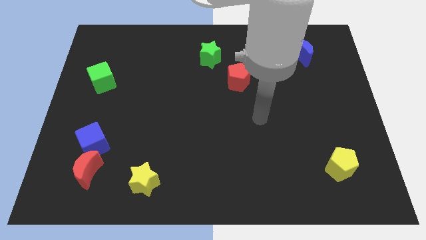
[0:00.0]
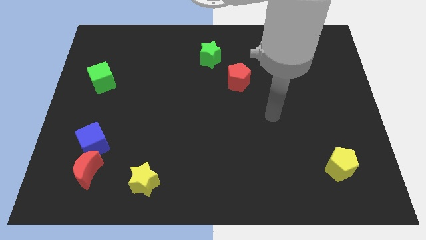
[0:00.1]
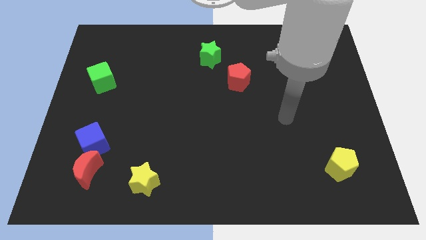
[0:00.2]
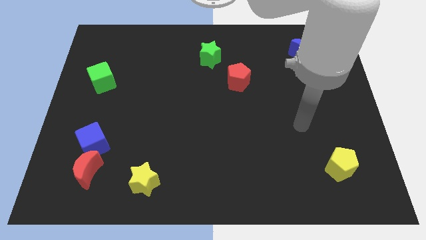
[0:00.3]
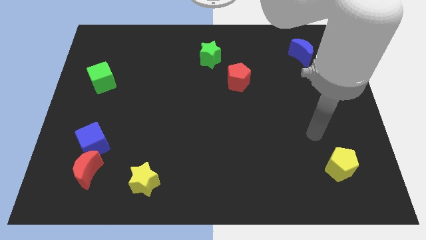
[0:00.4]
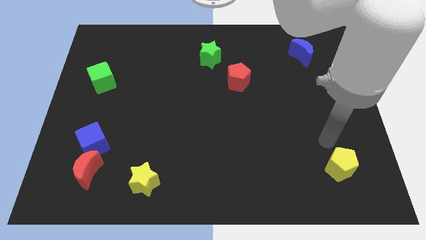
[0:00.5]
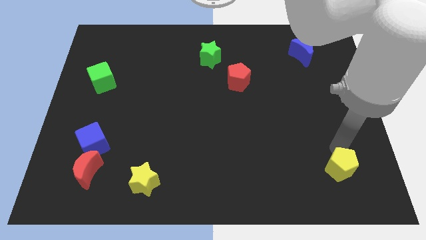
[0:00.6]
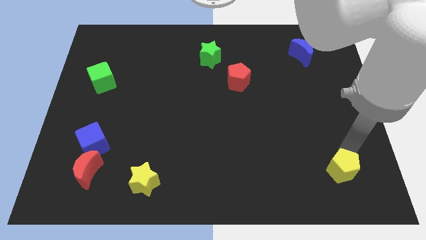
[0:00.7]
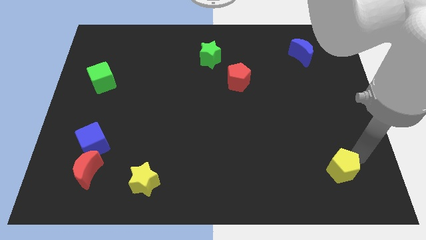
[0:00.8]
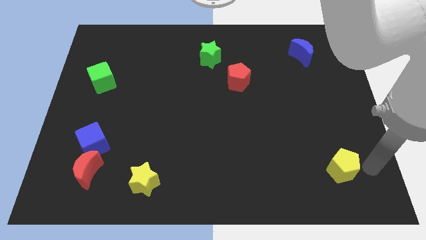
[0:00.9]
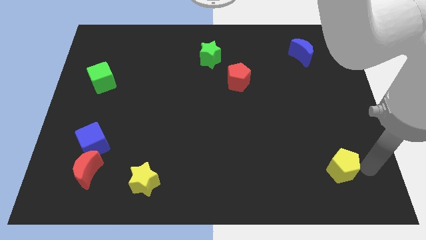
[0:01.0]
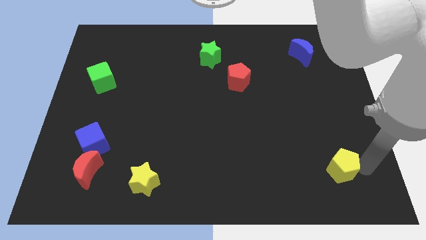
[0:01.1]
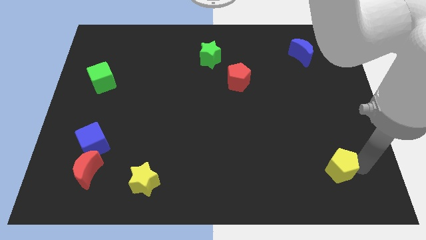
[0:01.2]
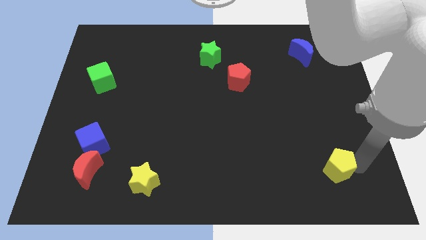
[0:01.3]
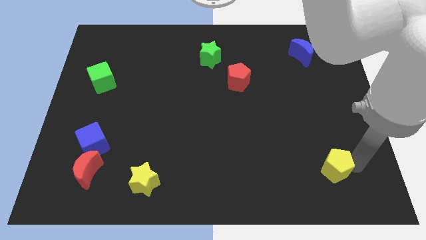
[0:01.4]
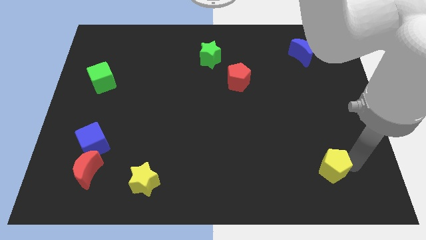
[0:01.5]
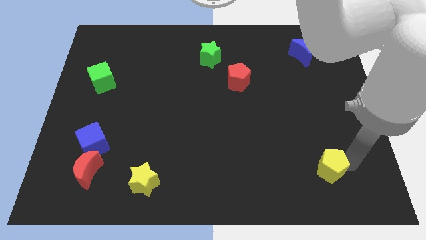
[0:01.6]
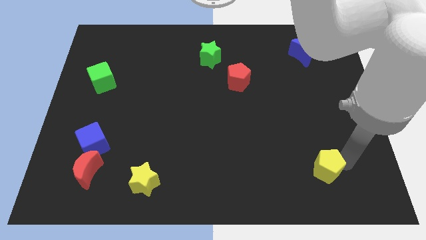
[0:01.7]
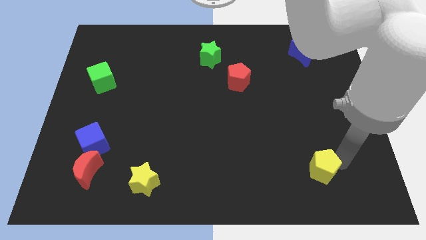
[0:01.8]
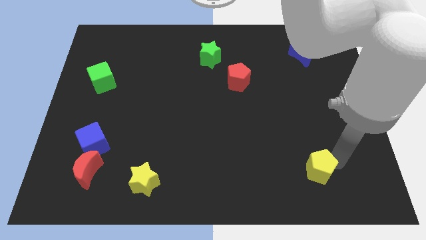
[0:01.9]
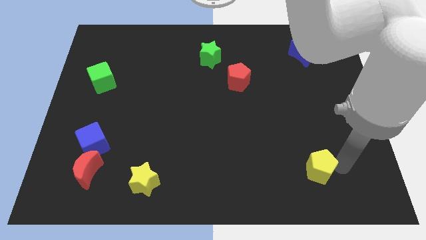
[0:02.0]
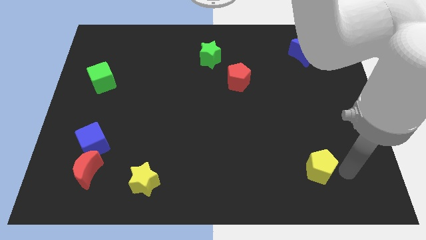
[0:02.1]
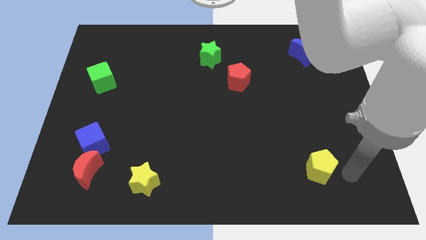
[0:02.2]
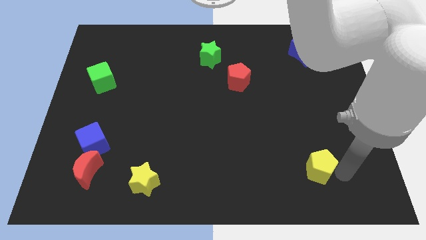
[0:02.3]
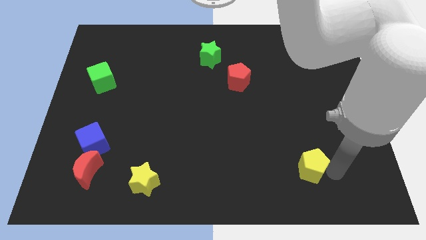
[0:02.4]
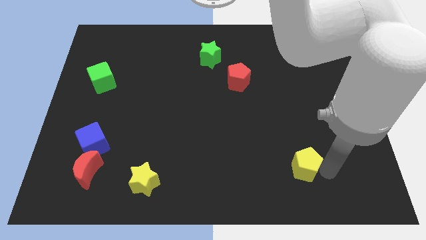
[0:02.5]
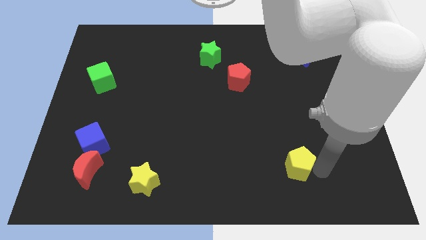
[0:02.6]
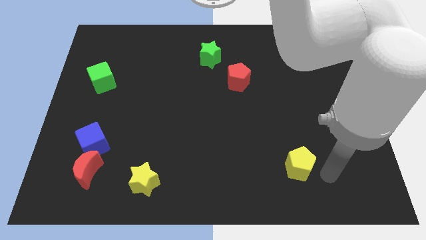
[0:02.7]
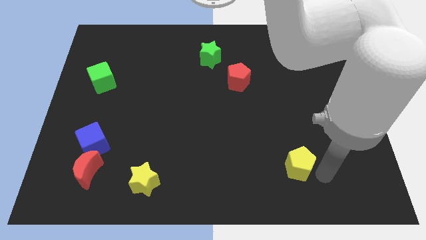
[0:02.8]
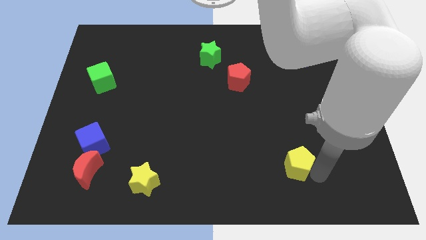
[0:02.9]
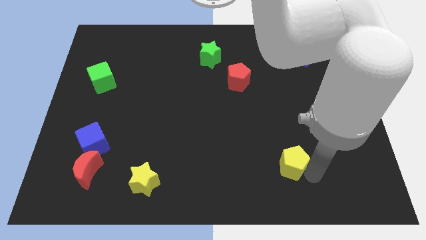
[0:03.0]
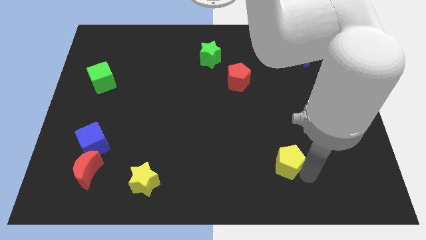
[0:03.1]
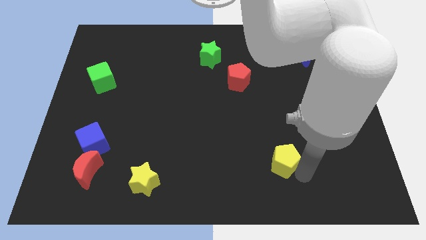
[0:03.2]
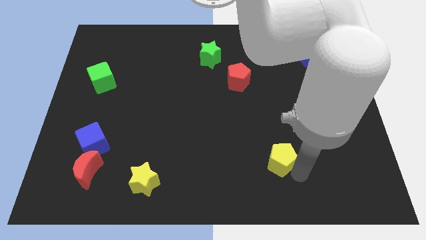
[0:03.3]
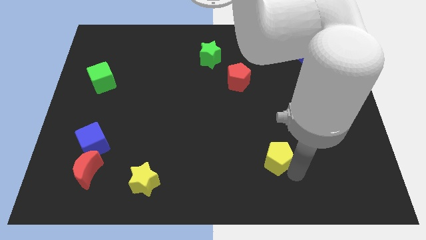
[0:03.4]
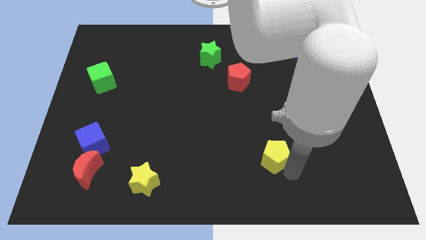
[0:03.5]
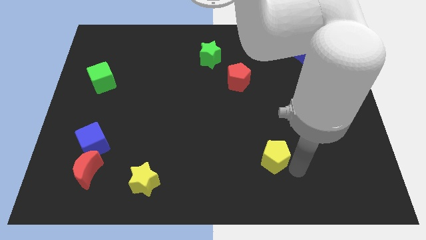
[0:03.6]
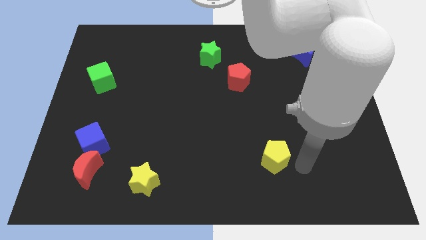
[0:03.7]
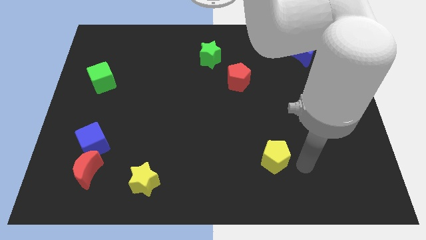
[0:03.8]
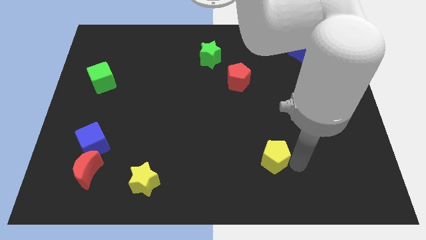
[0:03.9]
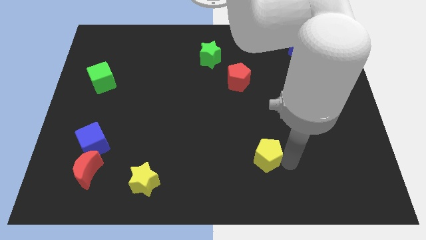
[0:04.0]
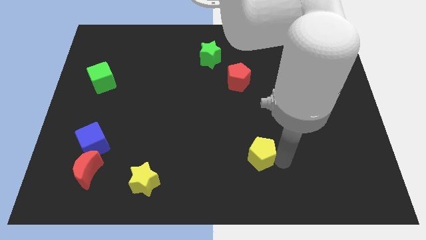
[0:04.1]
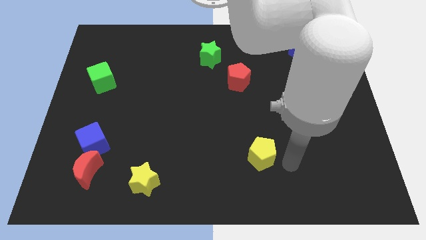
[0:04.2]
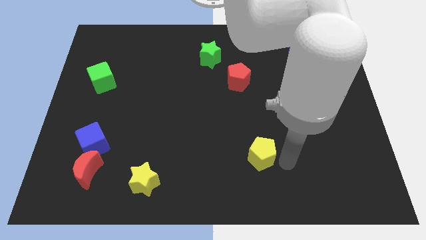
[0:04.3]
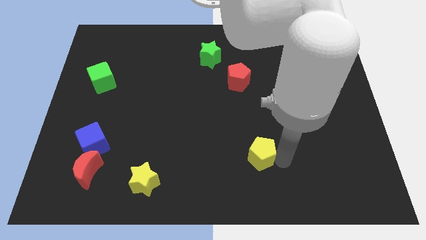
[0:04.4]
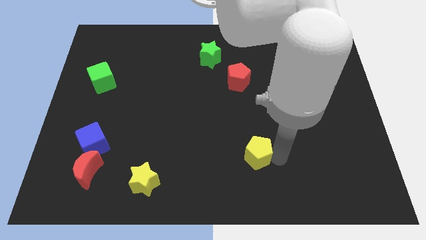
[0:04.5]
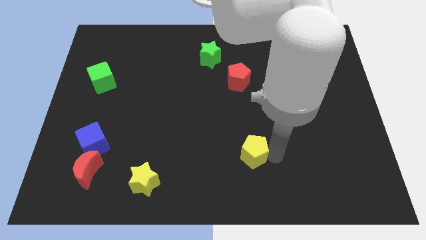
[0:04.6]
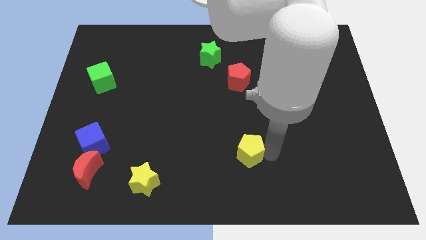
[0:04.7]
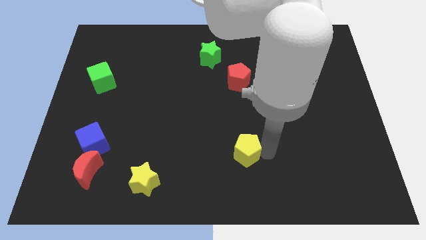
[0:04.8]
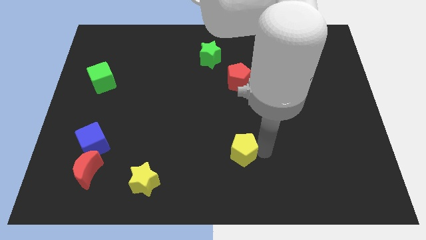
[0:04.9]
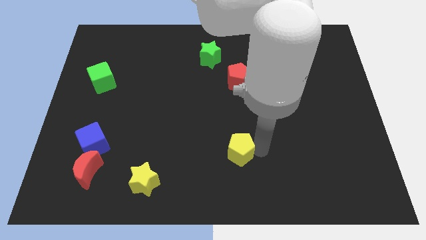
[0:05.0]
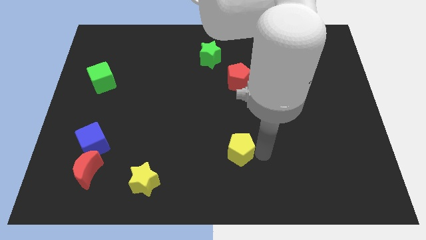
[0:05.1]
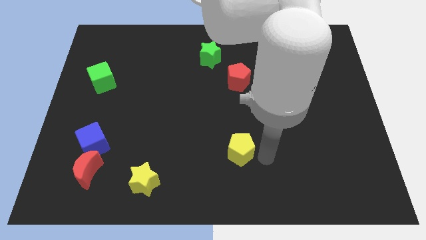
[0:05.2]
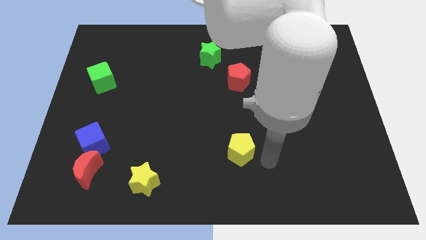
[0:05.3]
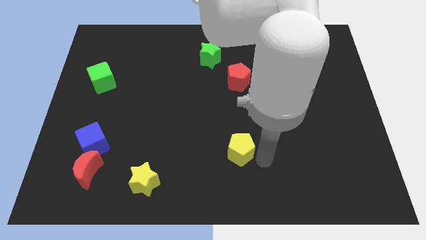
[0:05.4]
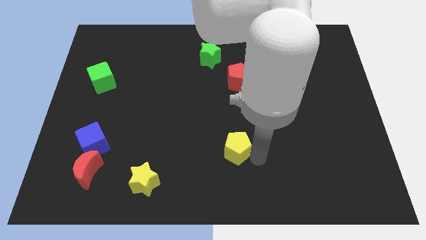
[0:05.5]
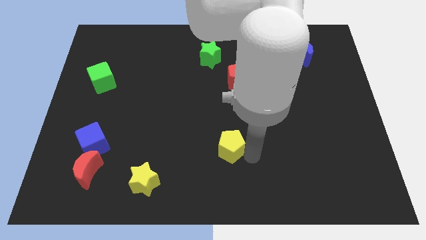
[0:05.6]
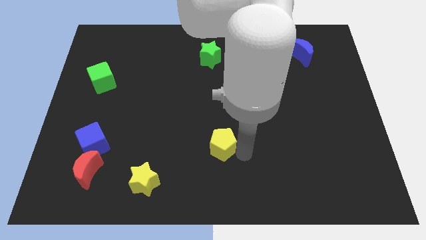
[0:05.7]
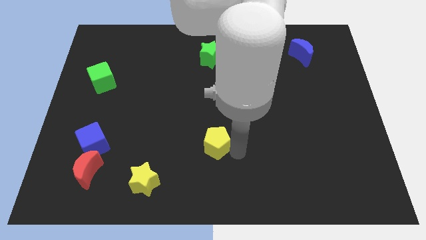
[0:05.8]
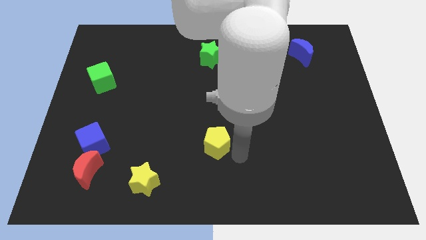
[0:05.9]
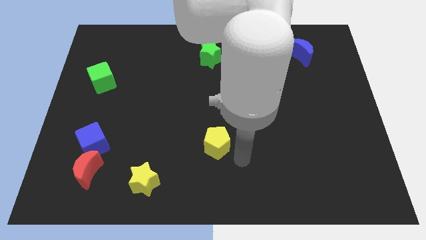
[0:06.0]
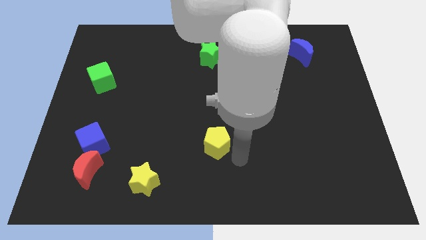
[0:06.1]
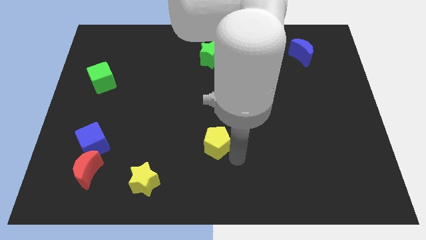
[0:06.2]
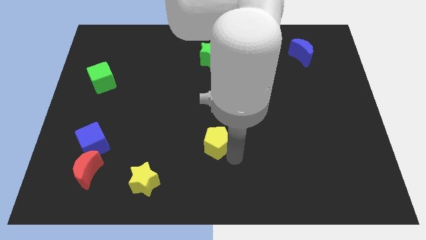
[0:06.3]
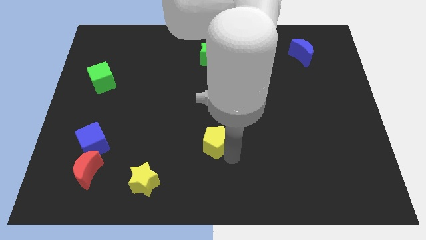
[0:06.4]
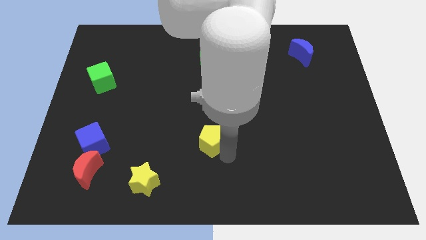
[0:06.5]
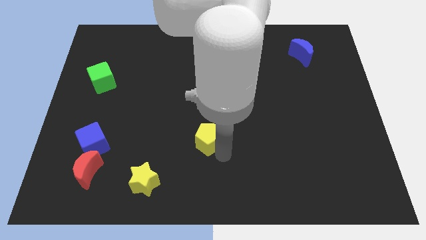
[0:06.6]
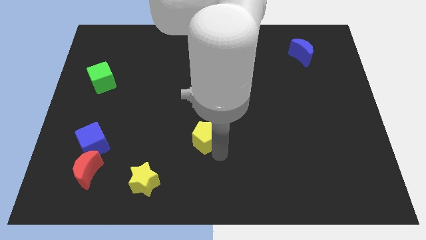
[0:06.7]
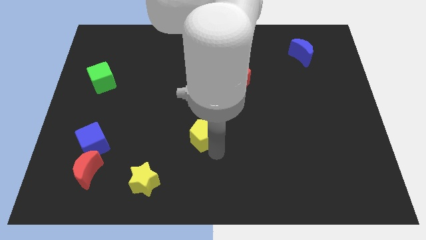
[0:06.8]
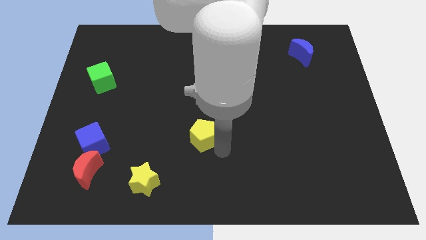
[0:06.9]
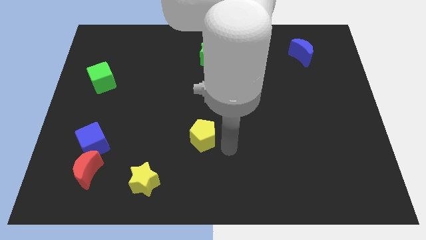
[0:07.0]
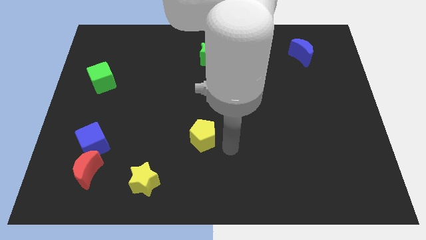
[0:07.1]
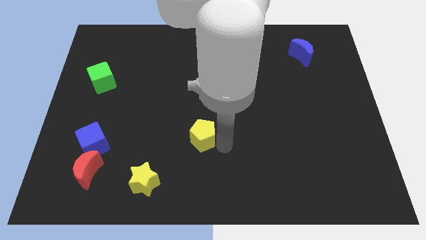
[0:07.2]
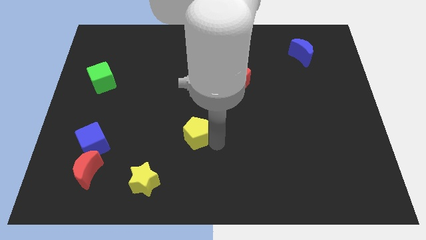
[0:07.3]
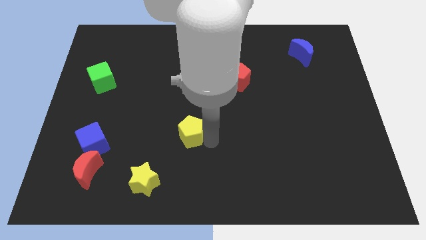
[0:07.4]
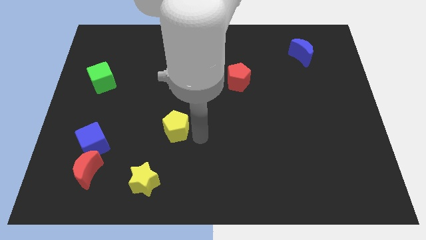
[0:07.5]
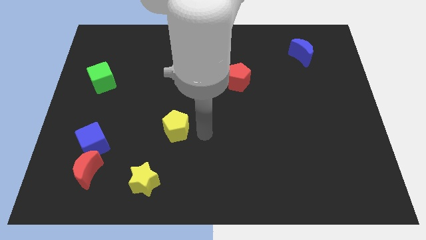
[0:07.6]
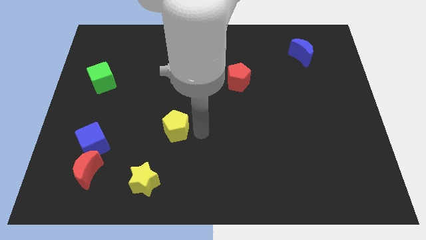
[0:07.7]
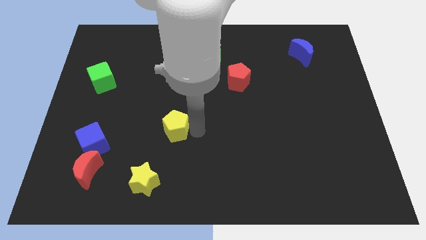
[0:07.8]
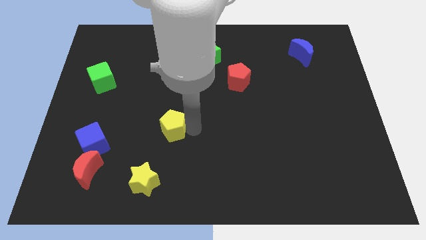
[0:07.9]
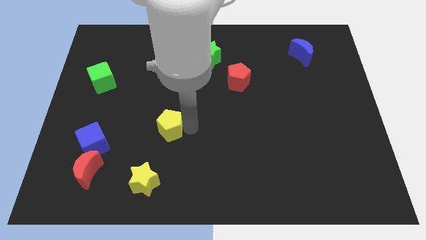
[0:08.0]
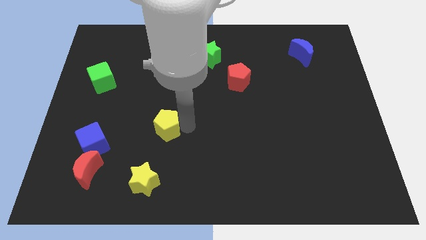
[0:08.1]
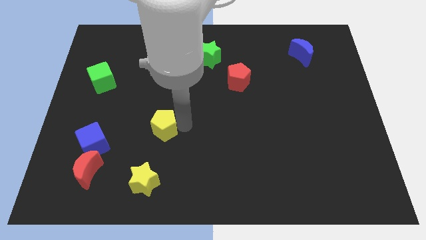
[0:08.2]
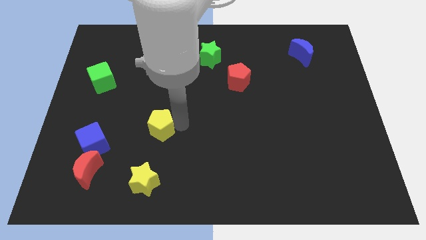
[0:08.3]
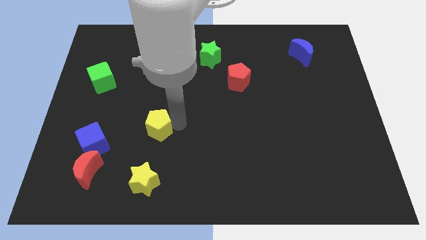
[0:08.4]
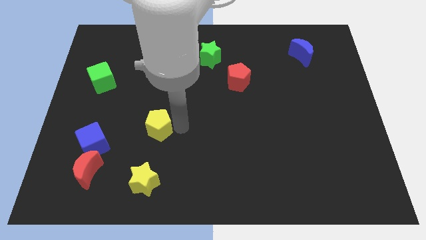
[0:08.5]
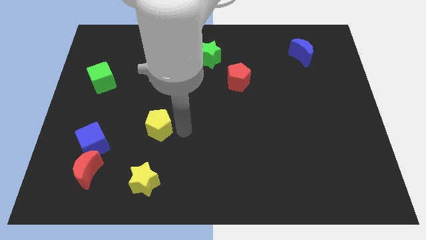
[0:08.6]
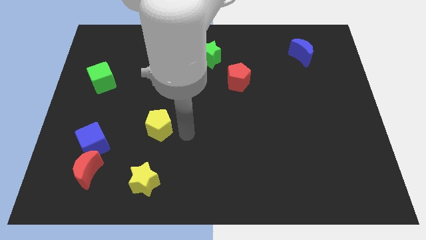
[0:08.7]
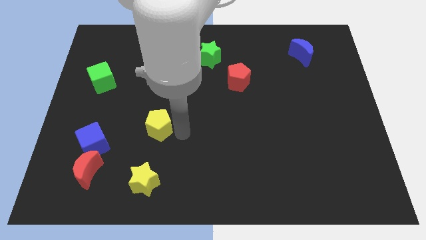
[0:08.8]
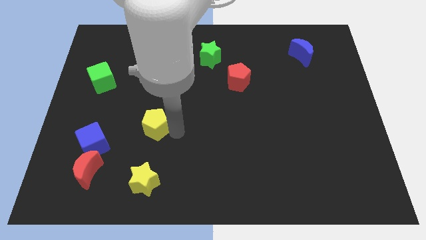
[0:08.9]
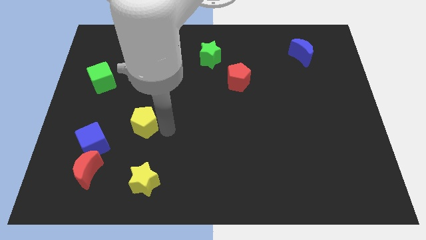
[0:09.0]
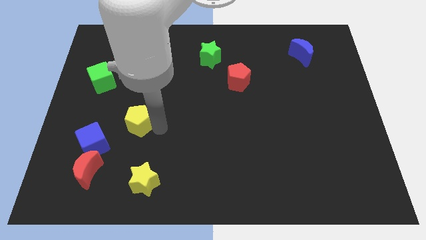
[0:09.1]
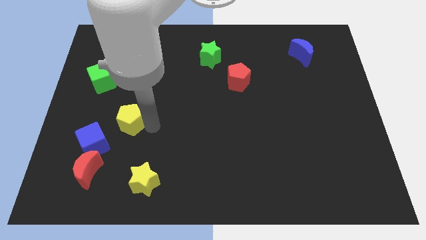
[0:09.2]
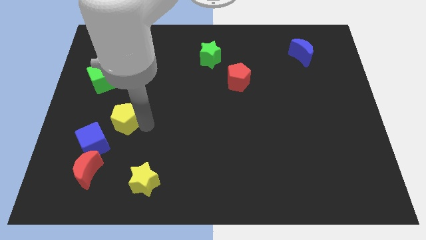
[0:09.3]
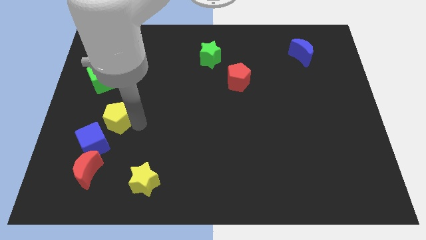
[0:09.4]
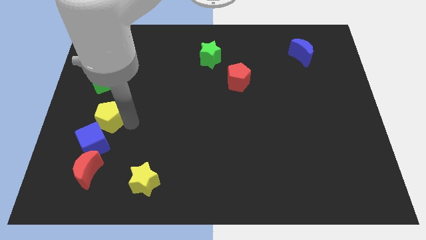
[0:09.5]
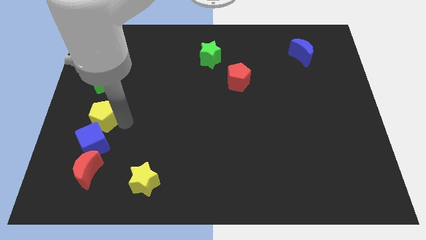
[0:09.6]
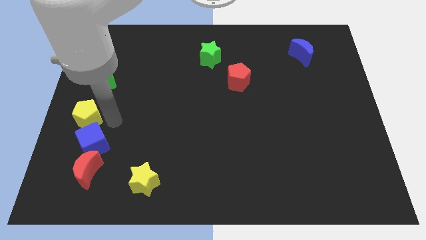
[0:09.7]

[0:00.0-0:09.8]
put the yellow pentagon to the left side
